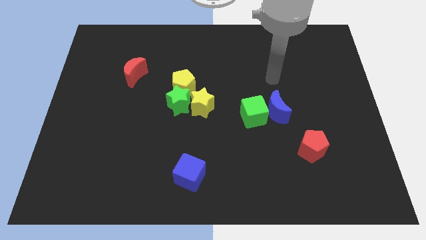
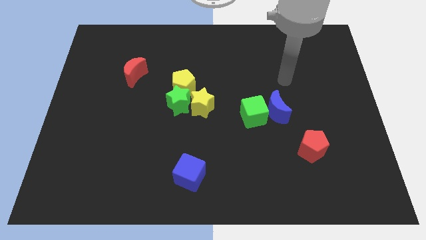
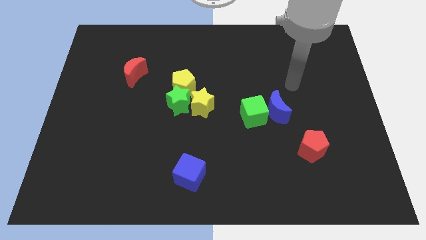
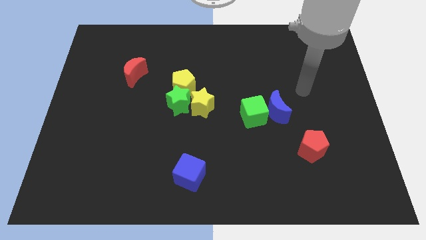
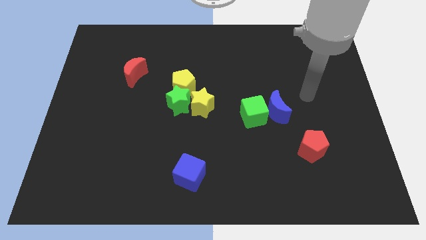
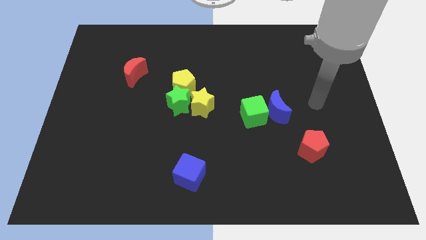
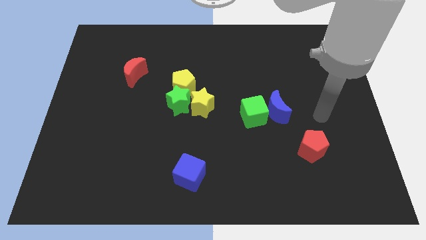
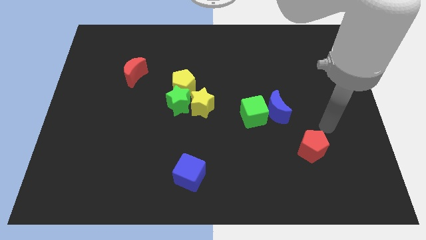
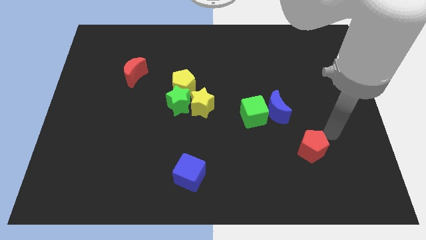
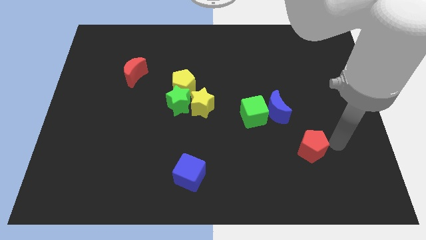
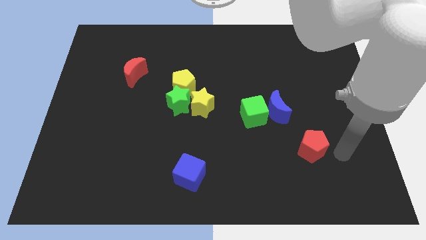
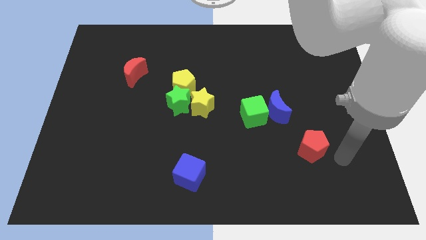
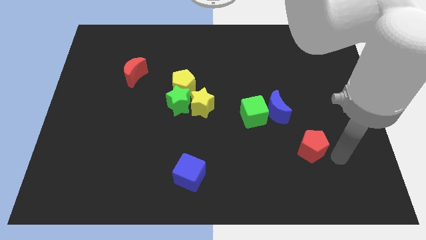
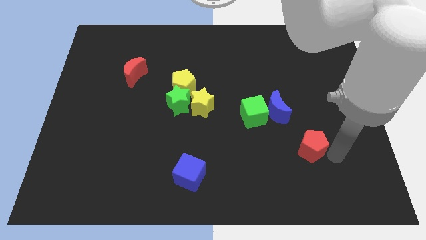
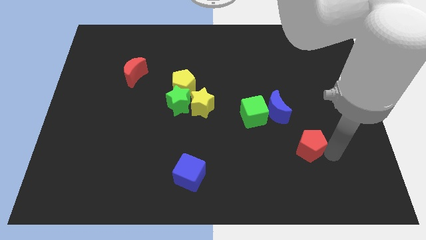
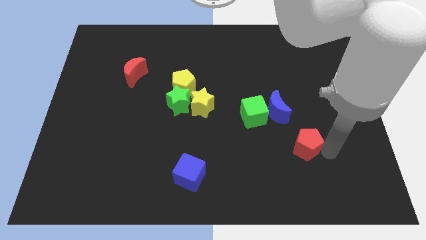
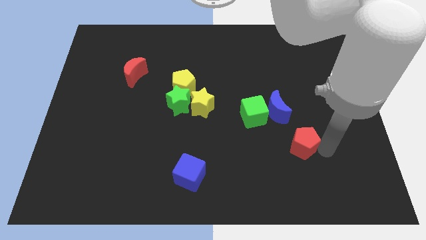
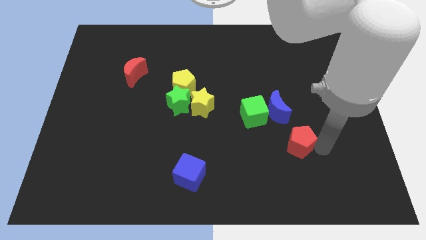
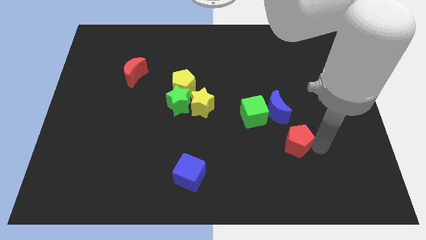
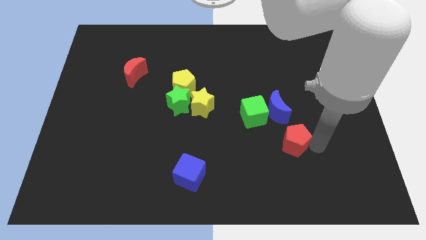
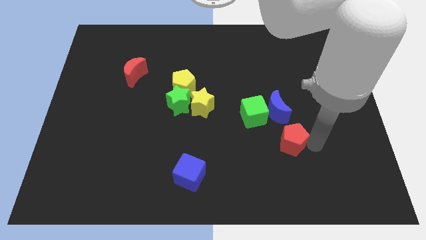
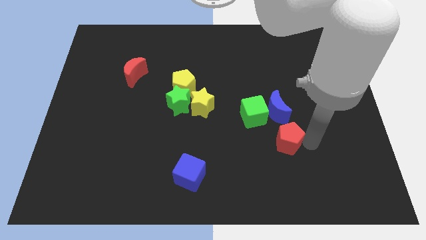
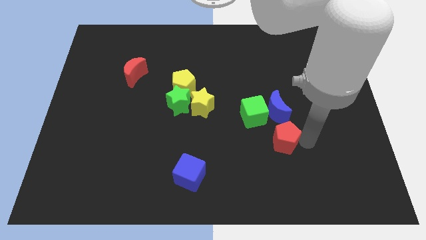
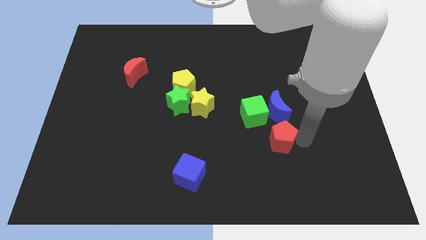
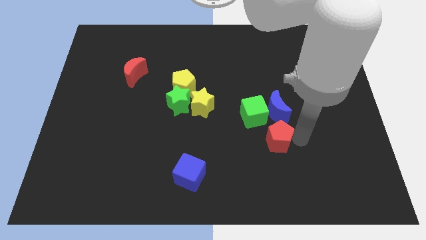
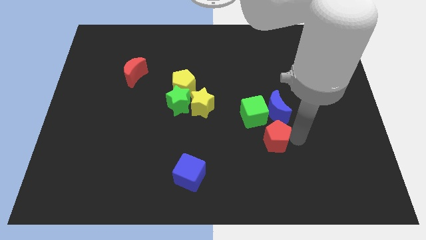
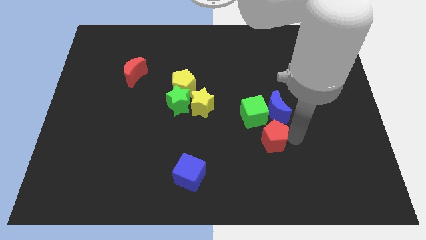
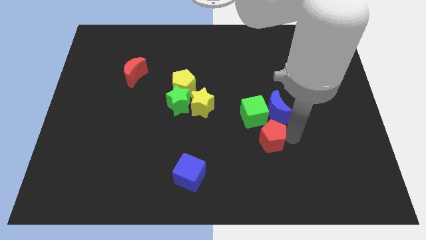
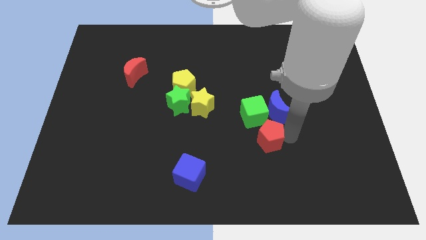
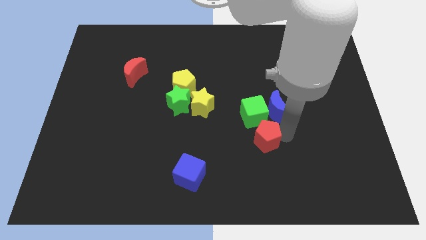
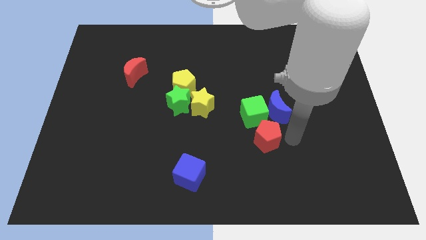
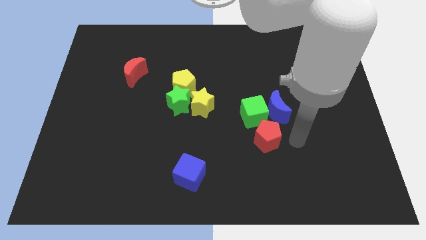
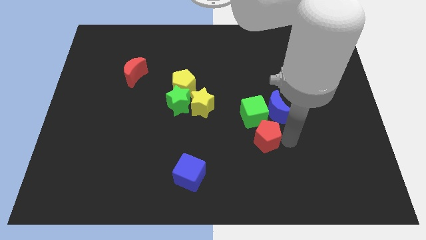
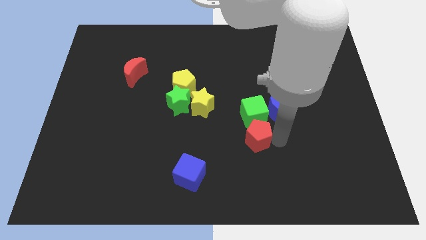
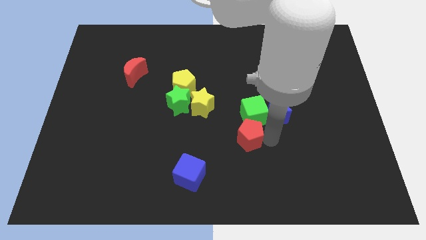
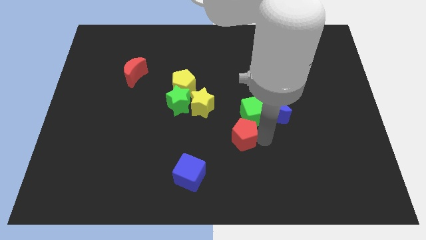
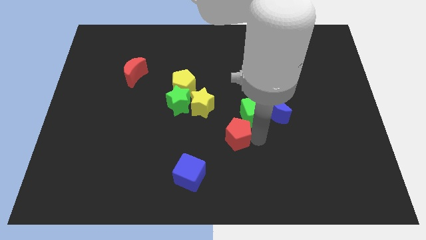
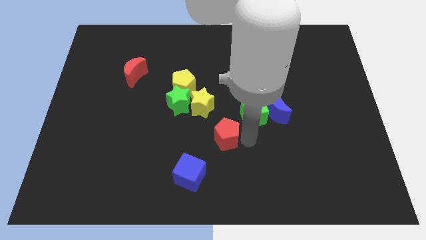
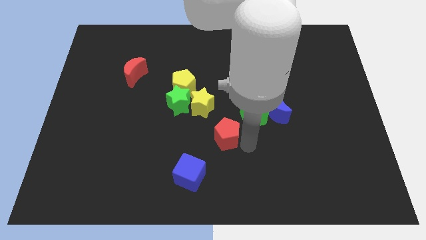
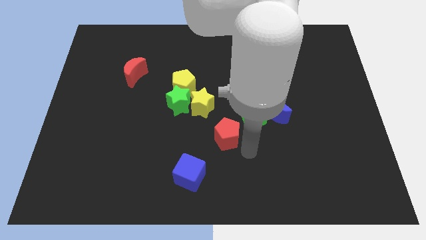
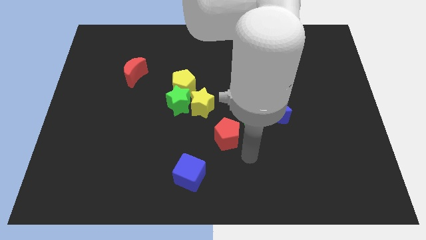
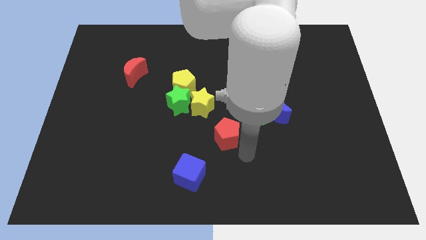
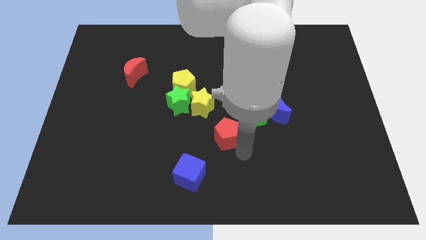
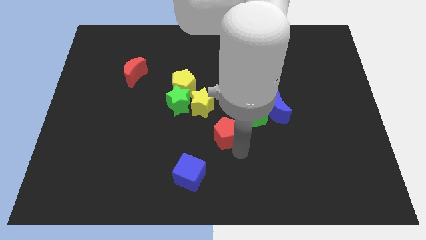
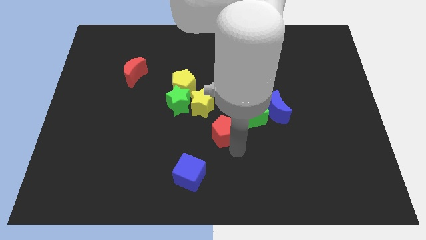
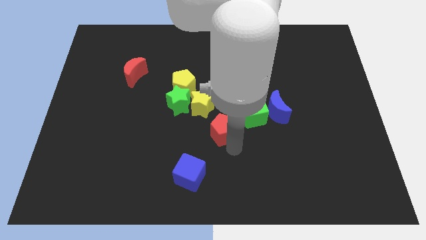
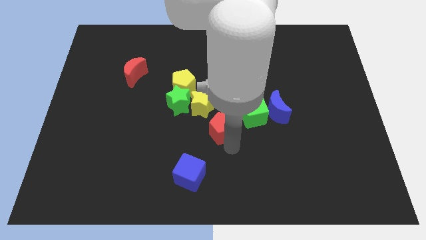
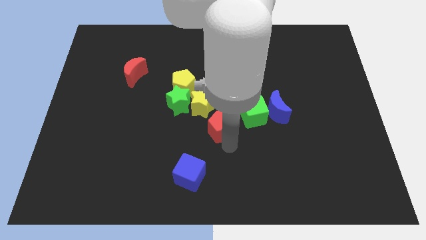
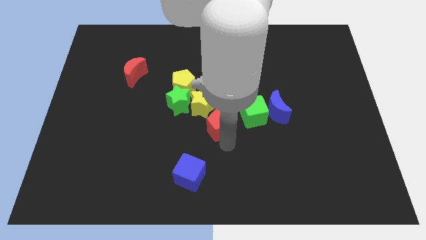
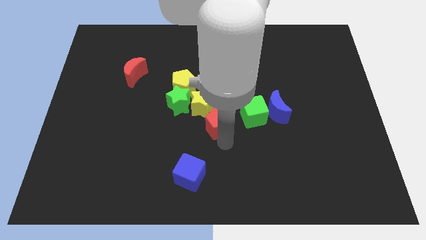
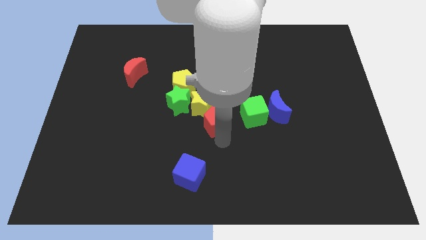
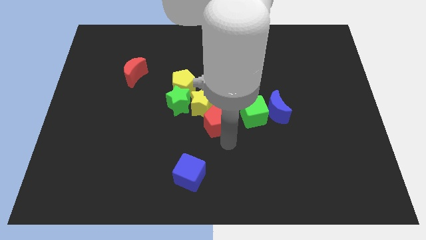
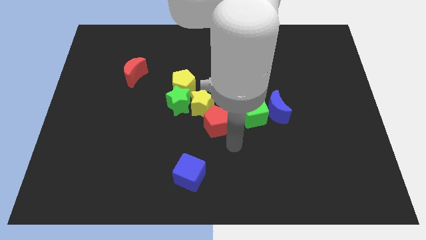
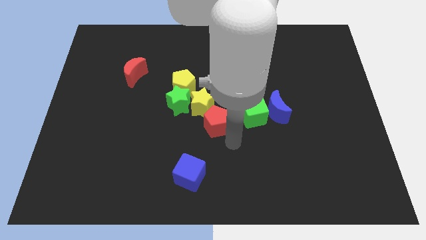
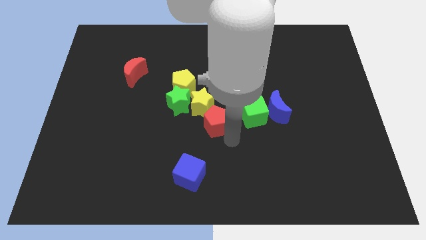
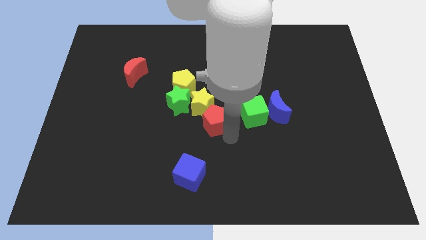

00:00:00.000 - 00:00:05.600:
slide the red pentagon close to the yellow star

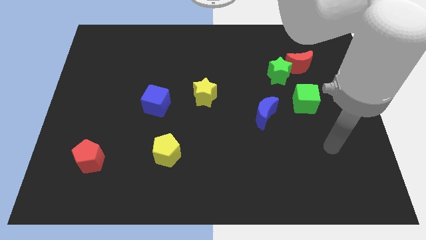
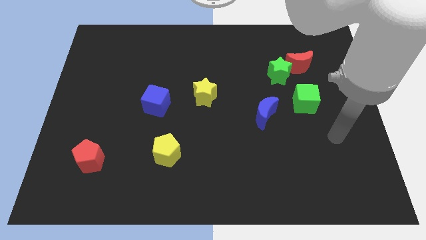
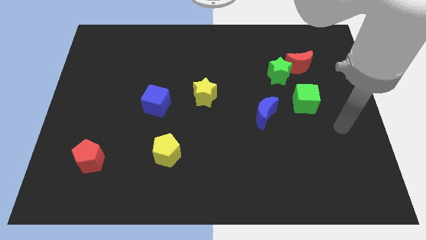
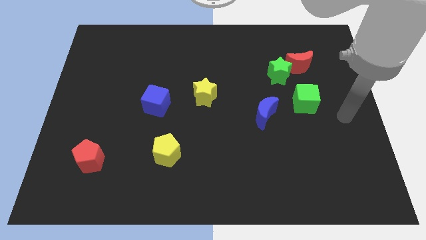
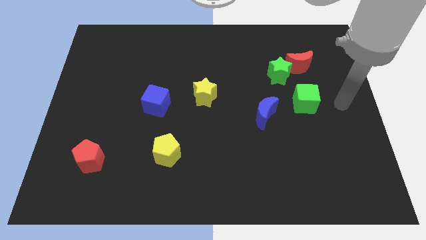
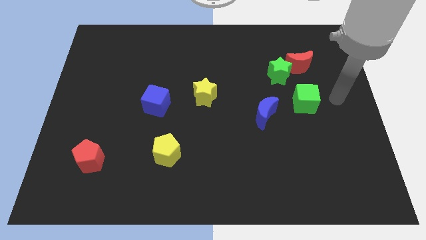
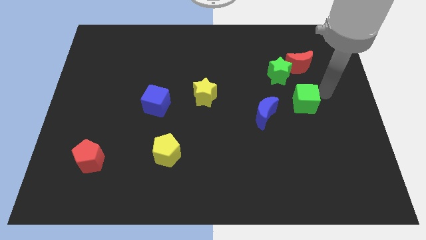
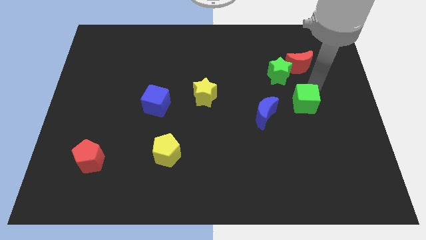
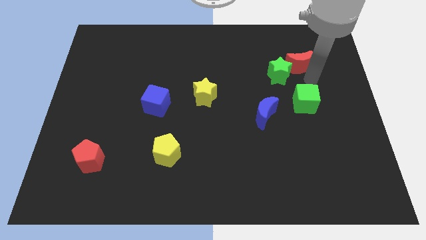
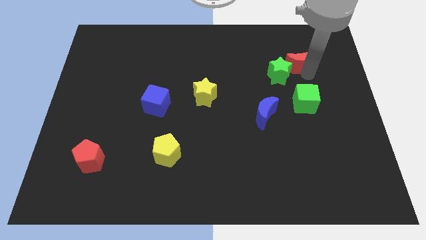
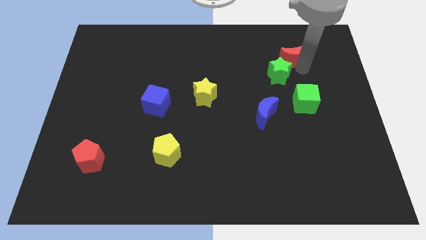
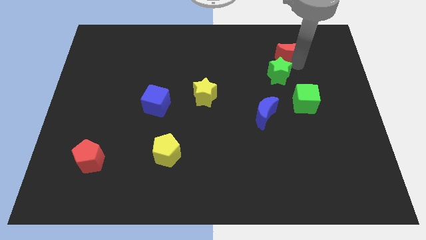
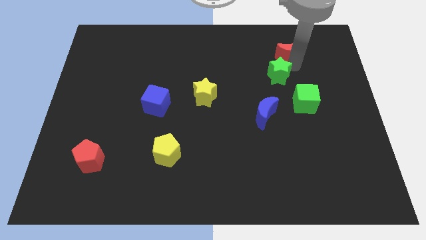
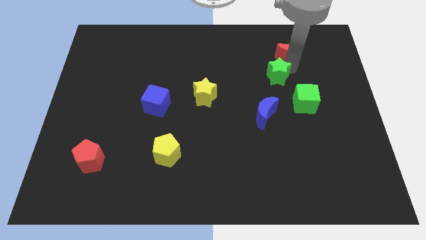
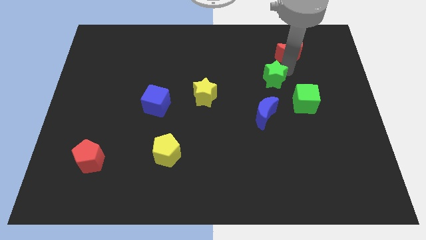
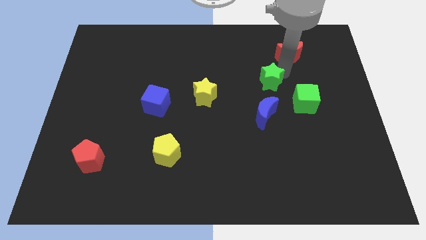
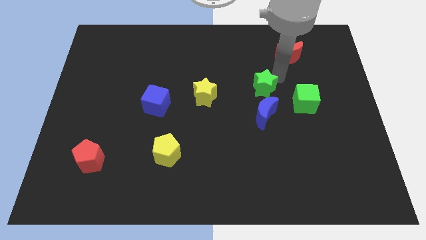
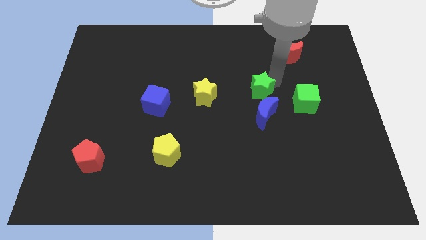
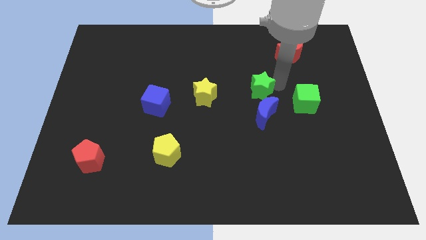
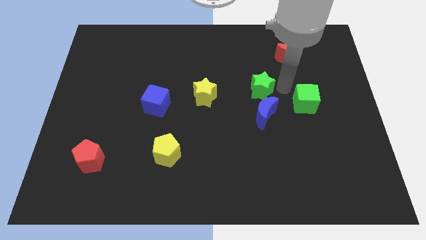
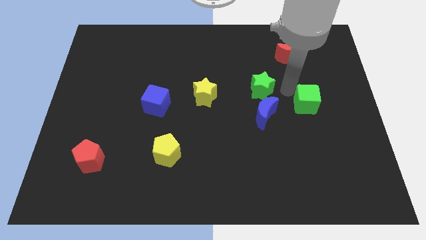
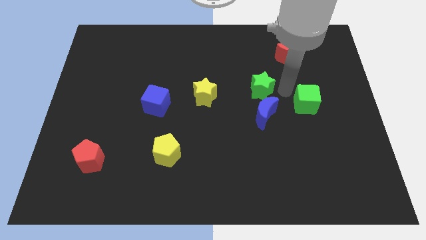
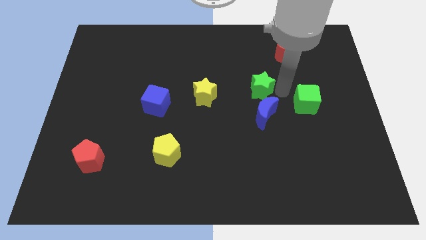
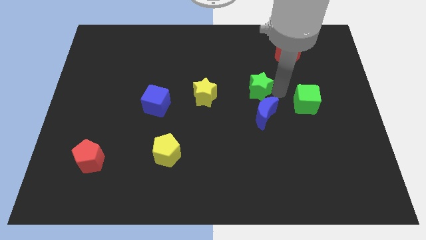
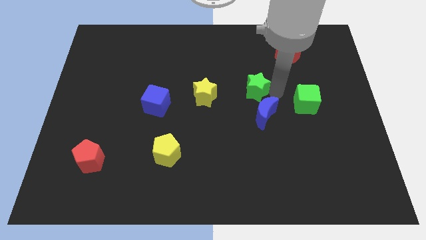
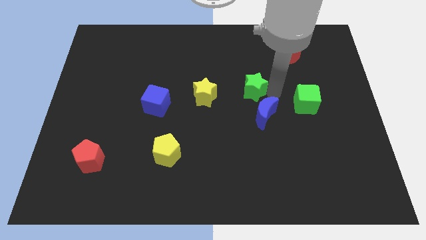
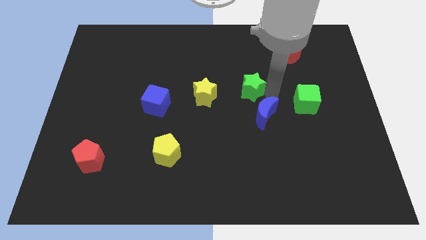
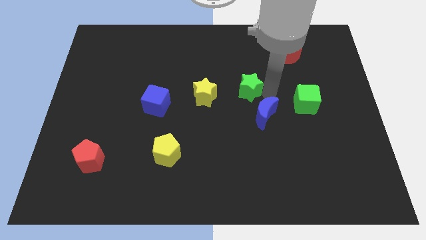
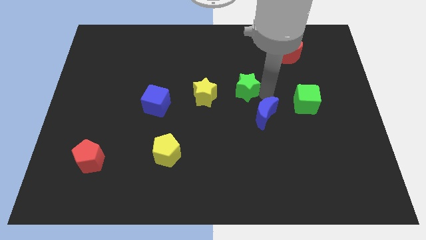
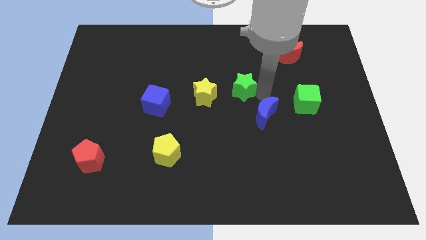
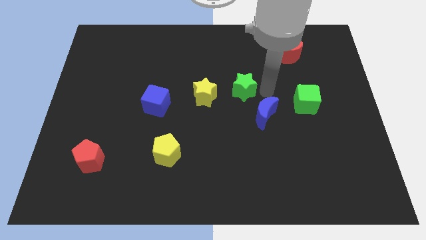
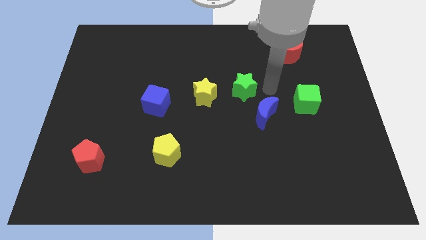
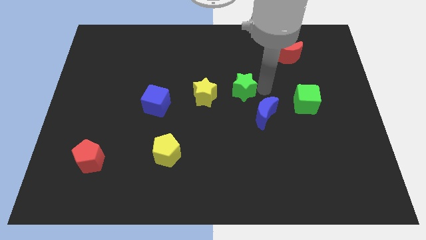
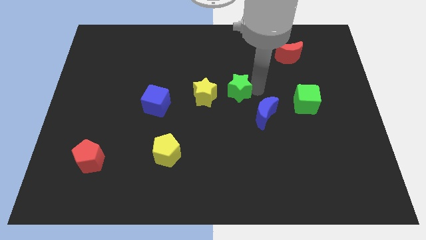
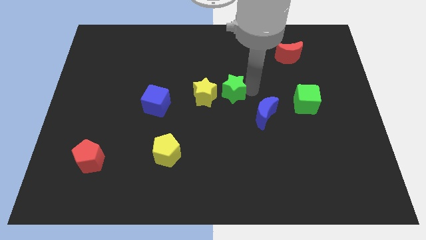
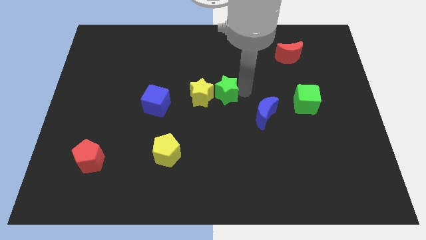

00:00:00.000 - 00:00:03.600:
move the green star towards the yellow star
